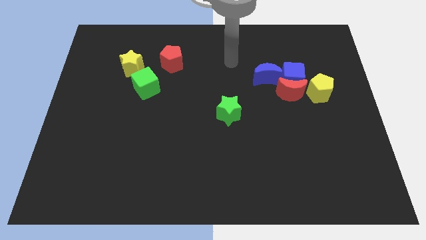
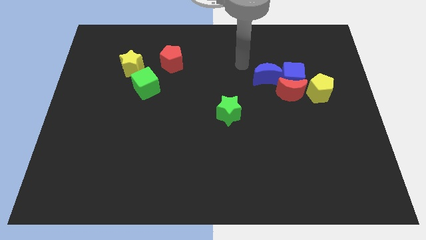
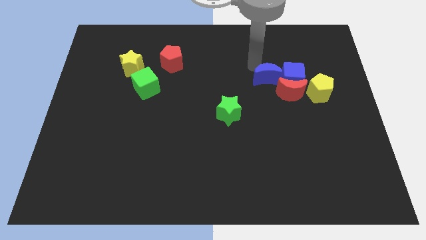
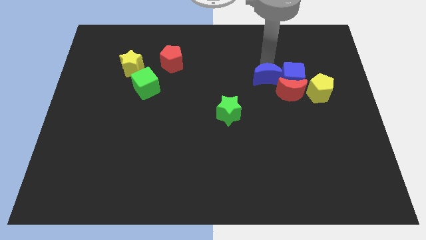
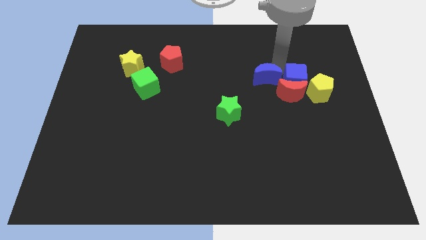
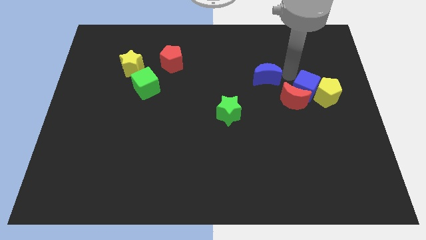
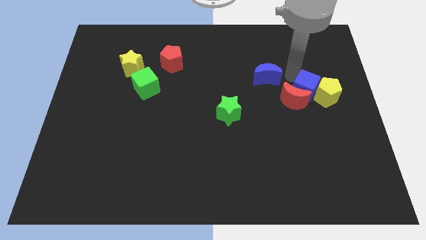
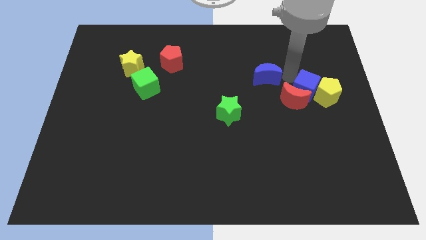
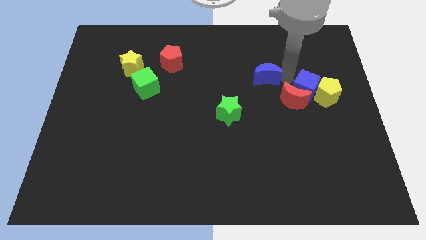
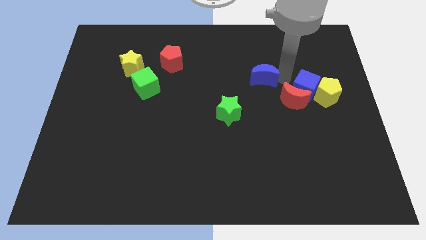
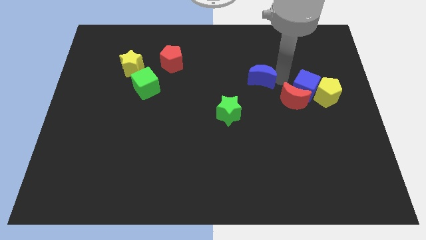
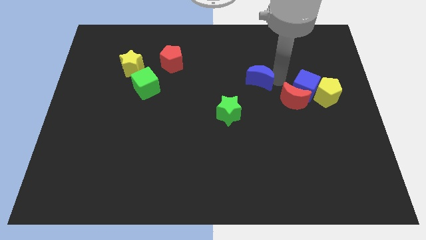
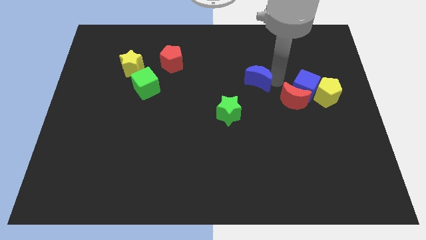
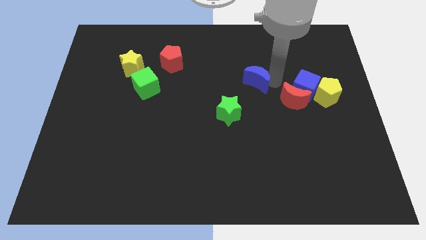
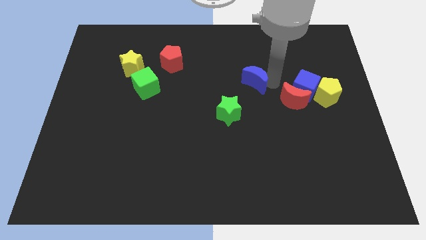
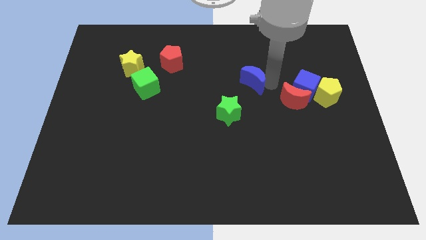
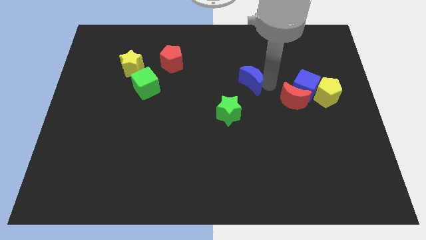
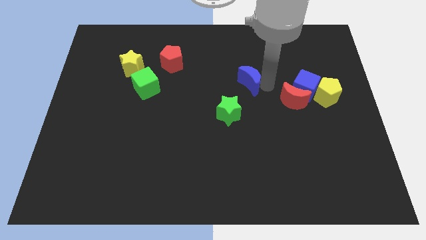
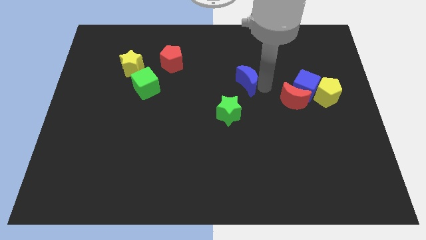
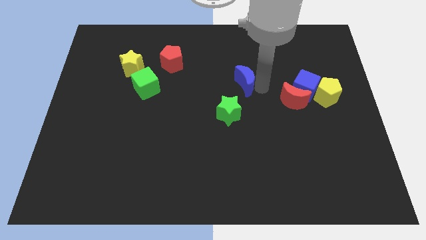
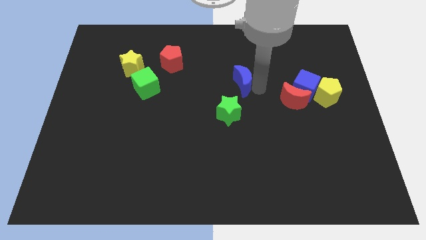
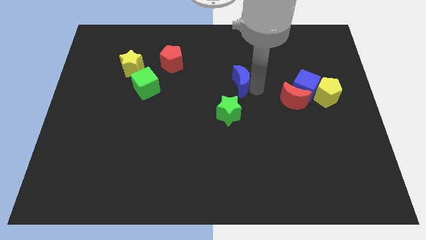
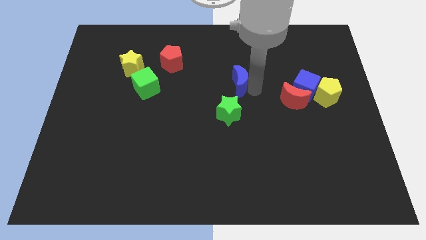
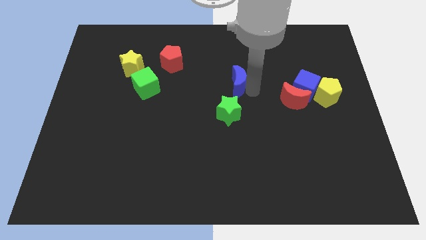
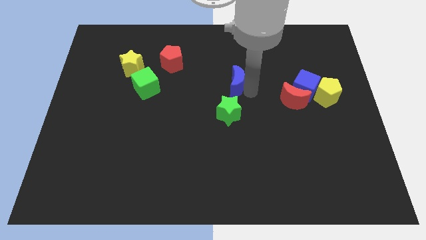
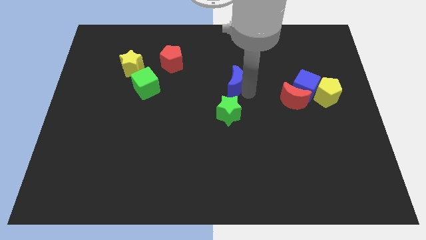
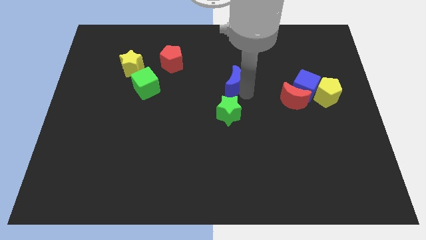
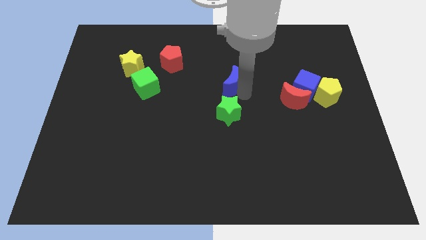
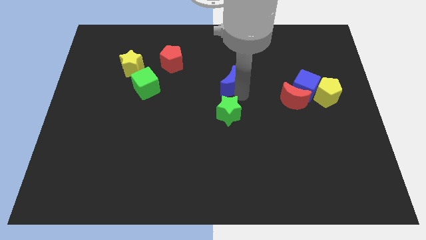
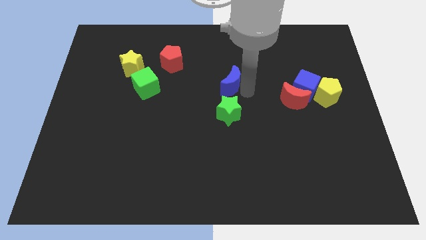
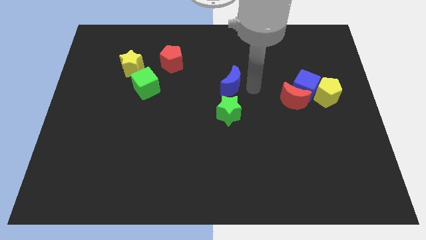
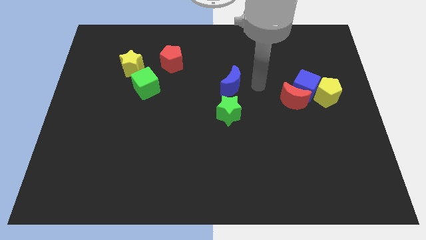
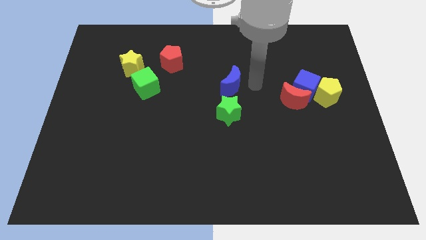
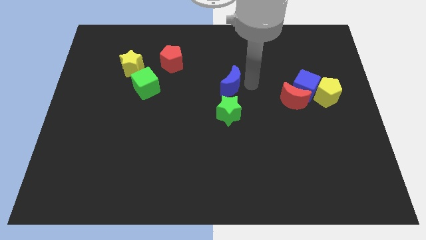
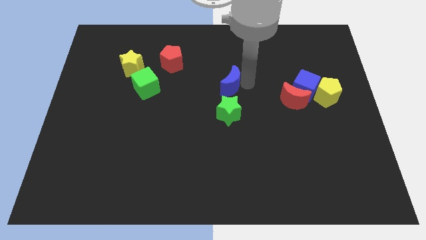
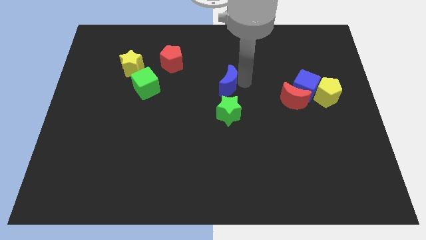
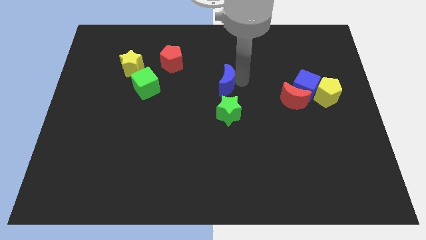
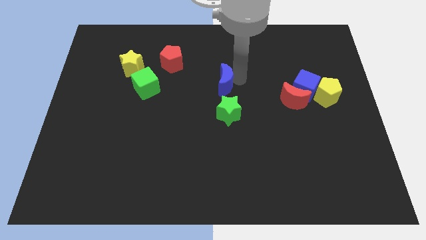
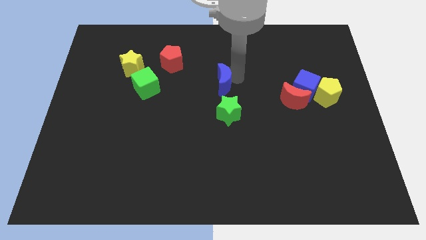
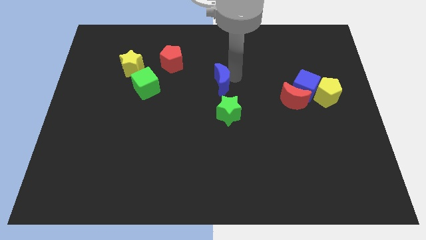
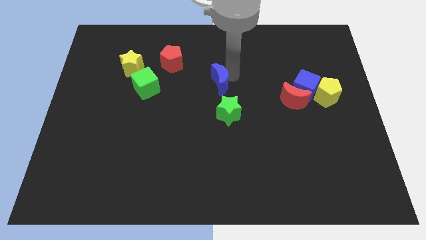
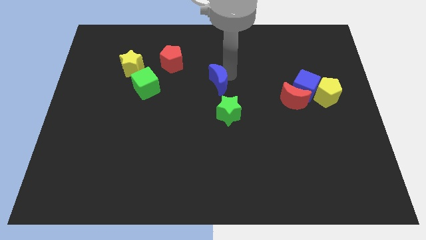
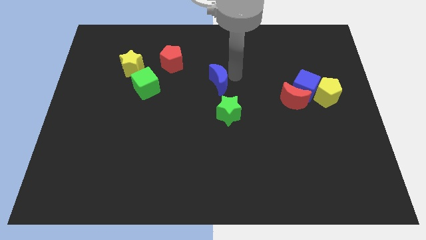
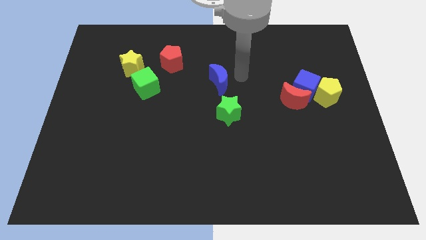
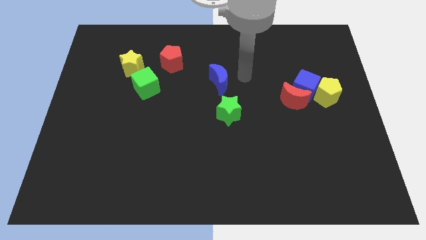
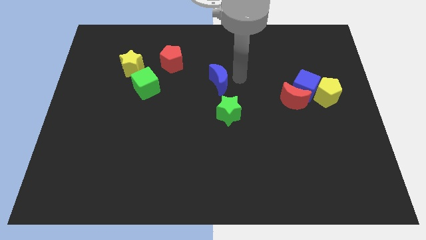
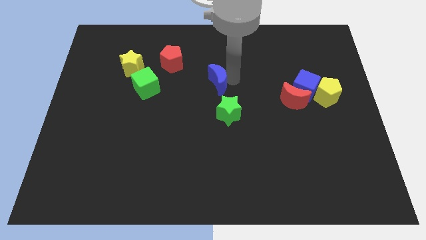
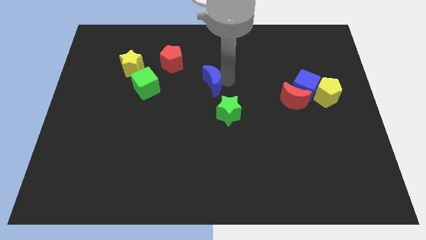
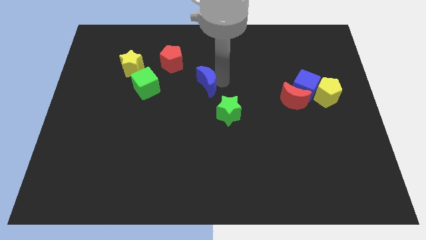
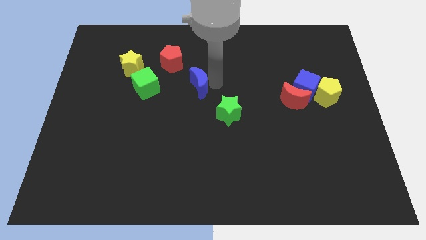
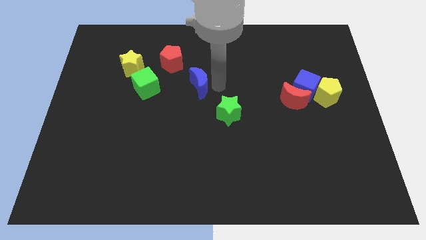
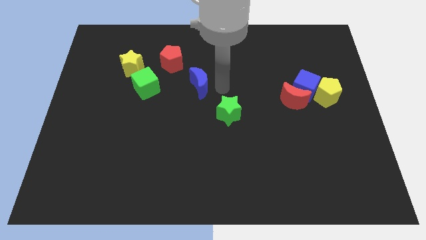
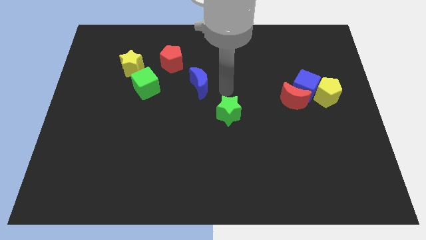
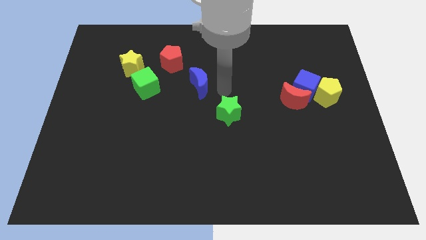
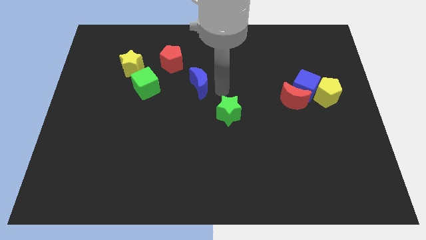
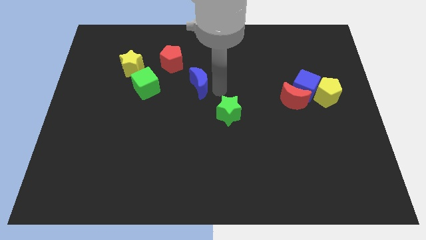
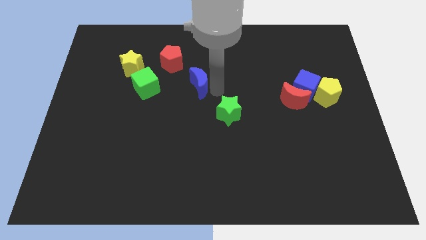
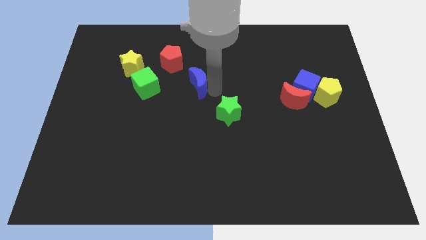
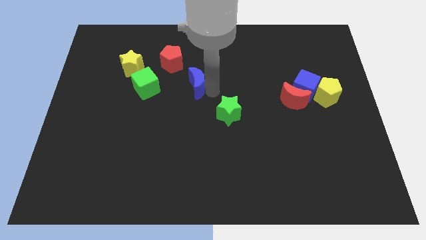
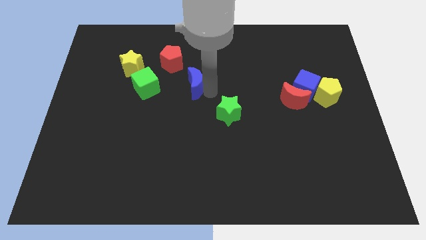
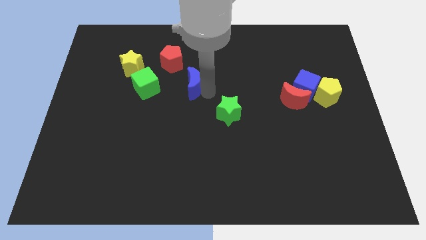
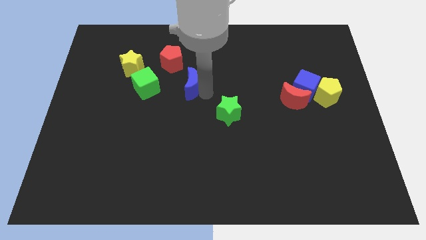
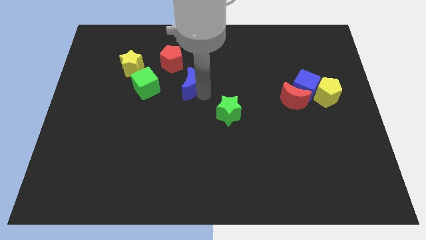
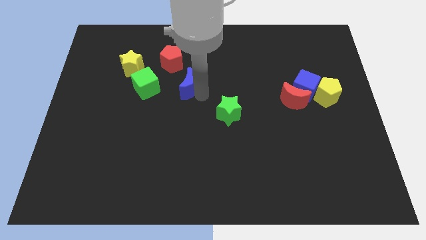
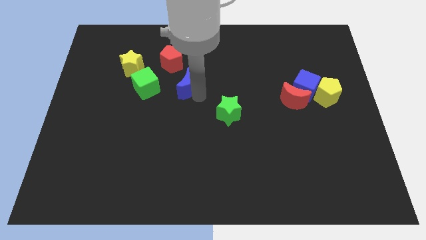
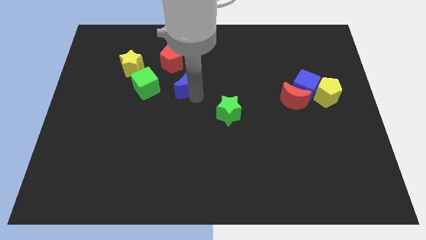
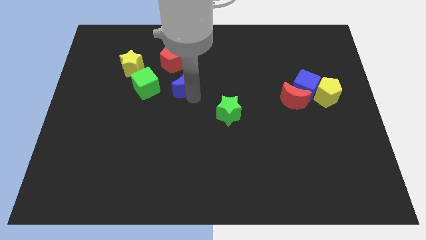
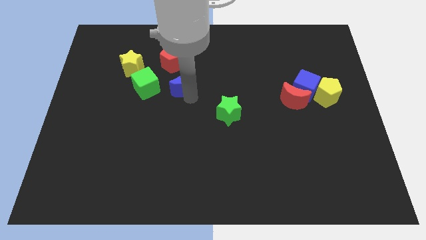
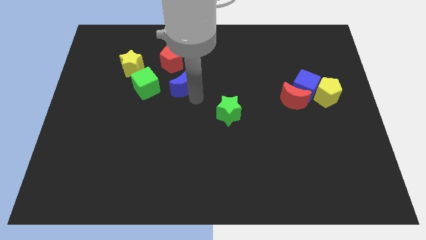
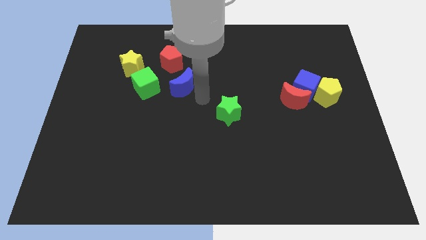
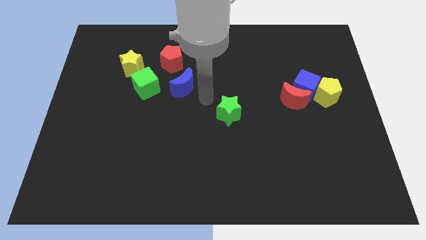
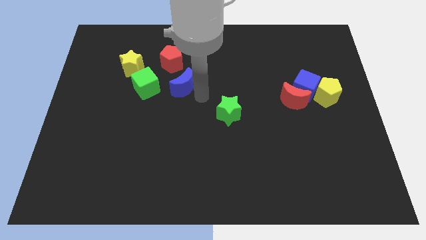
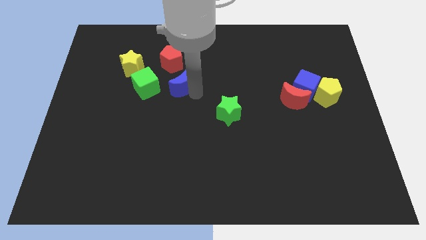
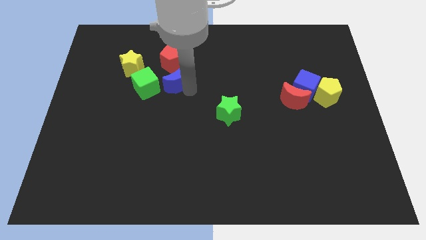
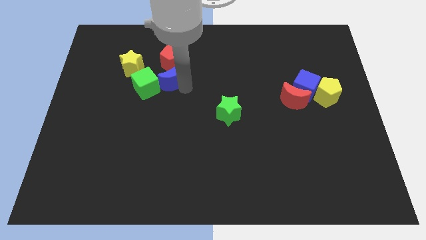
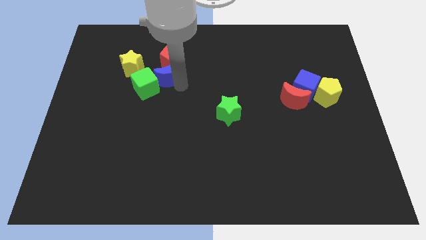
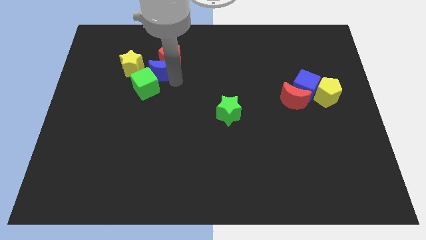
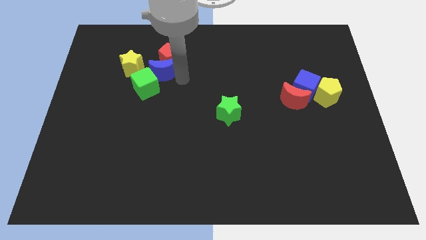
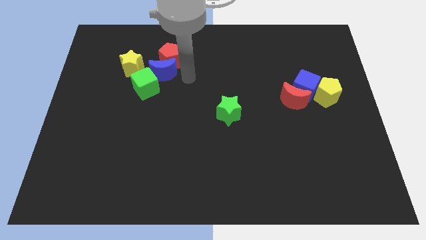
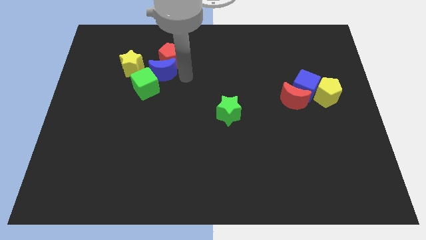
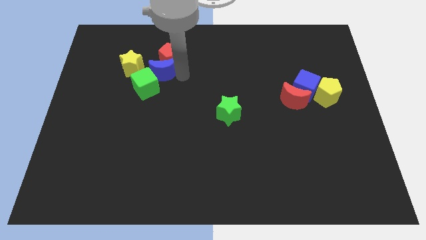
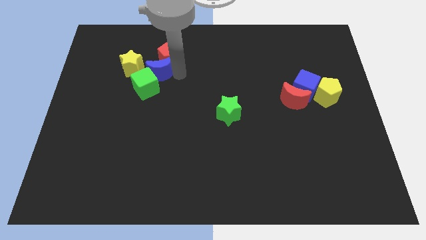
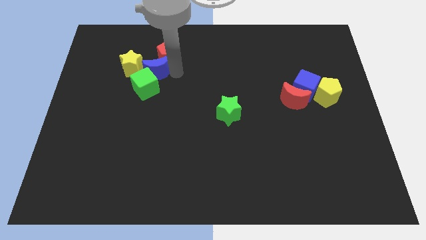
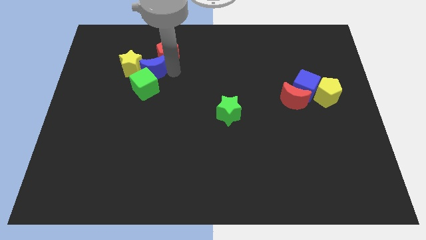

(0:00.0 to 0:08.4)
put the blue moon towards the yellow star
